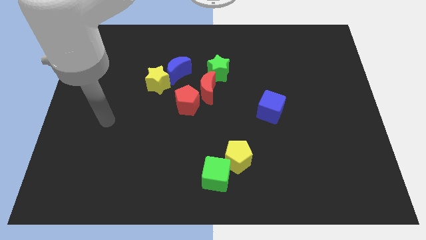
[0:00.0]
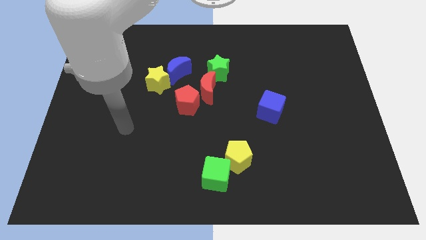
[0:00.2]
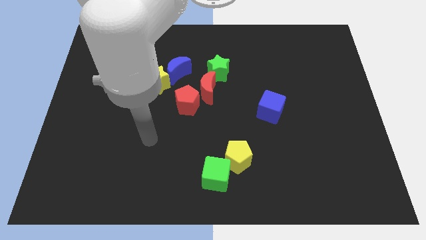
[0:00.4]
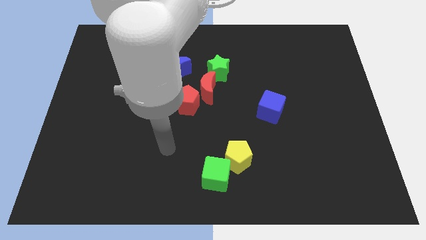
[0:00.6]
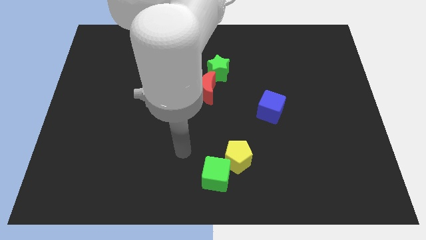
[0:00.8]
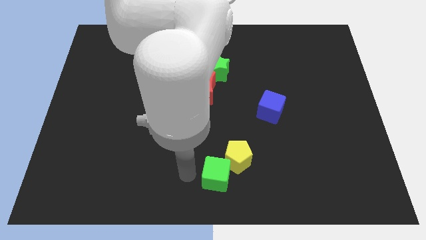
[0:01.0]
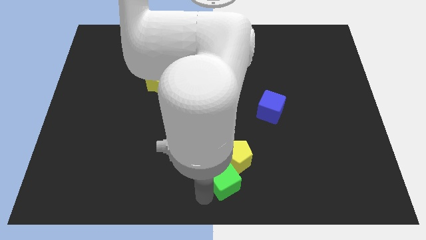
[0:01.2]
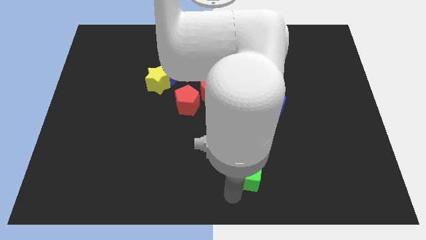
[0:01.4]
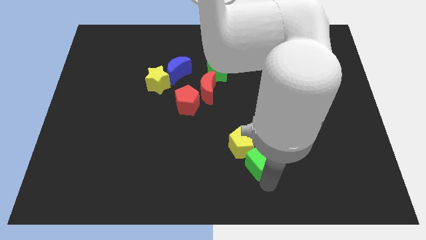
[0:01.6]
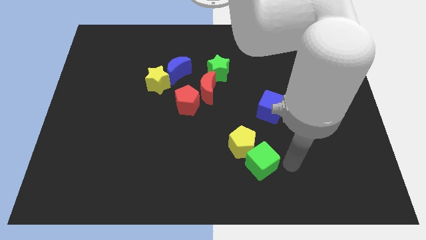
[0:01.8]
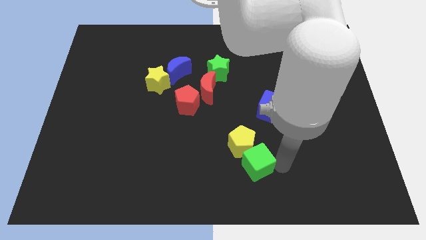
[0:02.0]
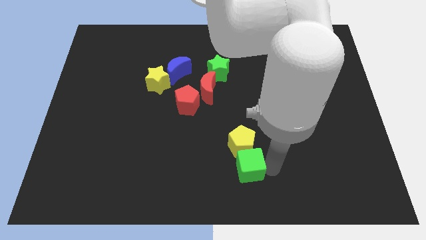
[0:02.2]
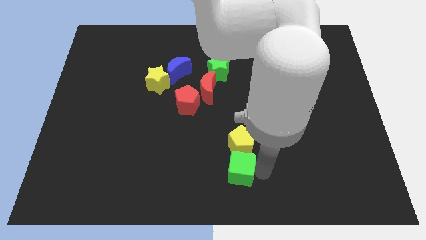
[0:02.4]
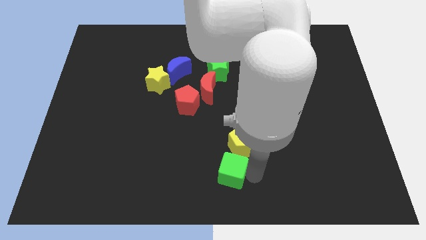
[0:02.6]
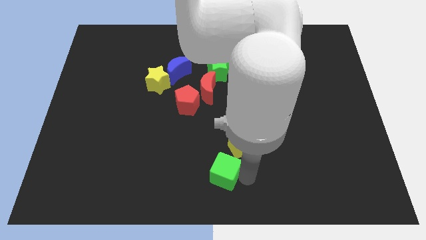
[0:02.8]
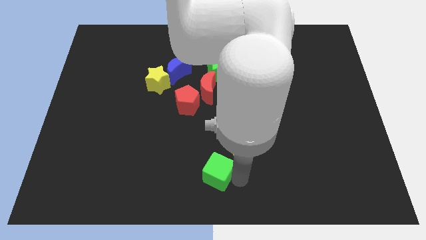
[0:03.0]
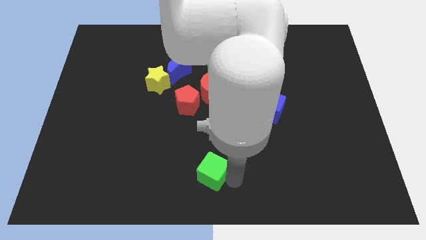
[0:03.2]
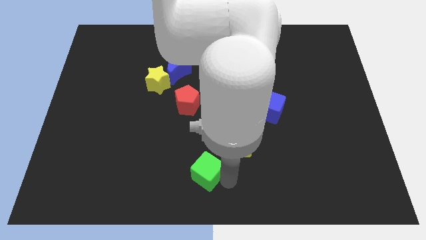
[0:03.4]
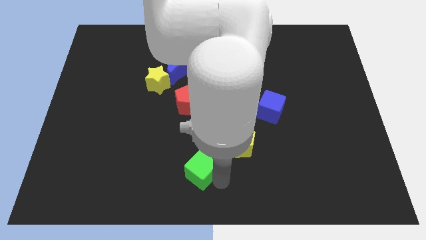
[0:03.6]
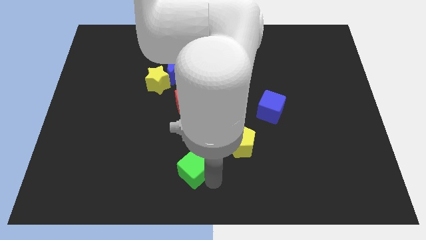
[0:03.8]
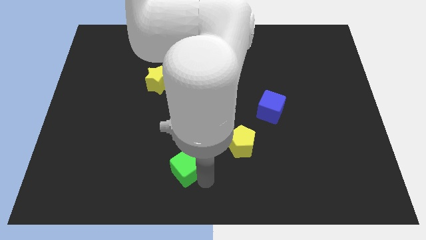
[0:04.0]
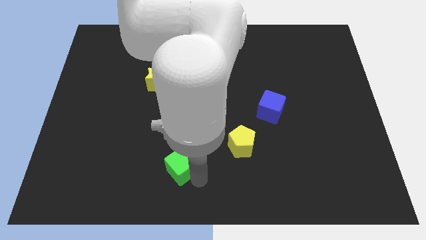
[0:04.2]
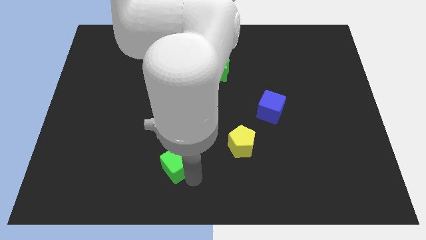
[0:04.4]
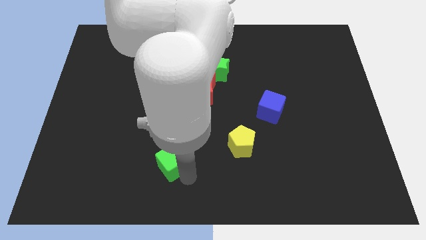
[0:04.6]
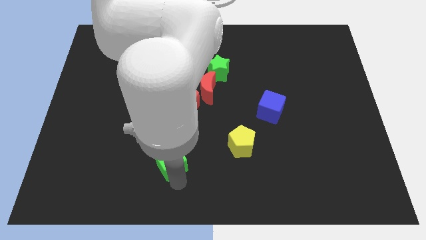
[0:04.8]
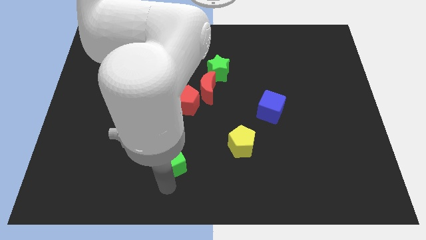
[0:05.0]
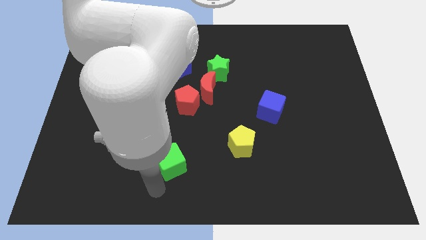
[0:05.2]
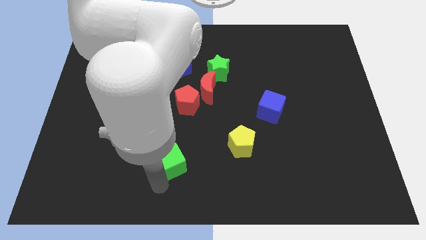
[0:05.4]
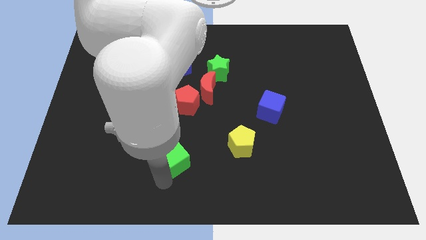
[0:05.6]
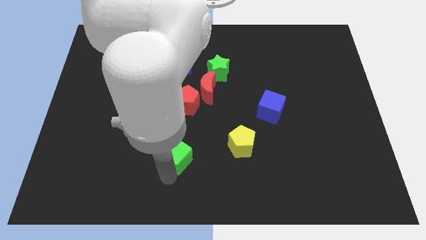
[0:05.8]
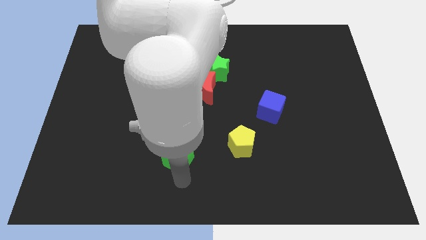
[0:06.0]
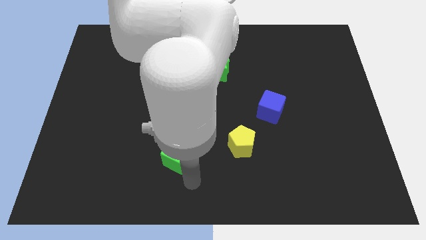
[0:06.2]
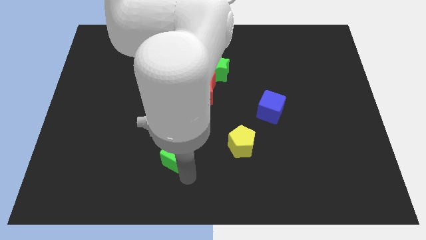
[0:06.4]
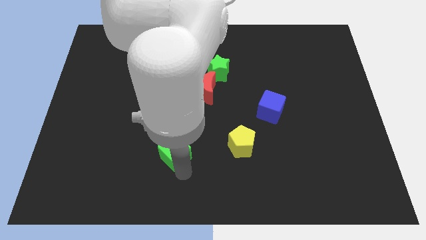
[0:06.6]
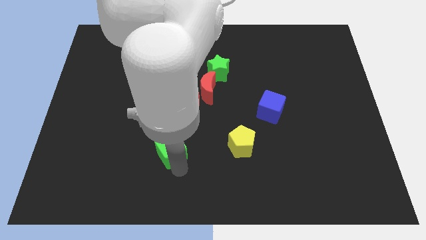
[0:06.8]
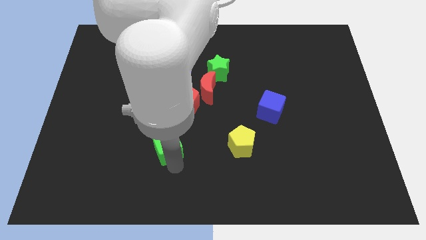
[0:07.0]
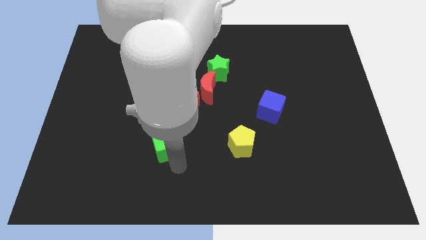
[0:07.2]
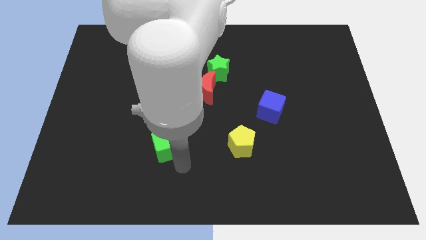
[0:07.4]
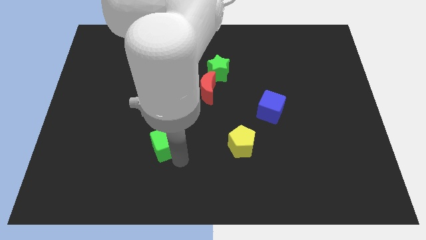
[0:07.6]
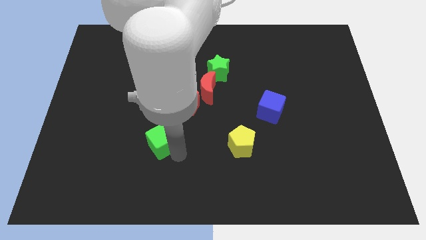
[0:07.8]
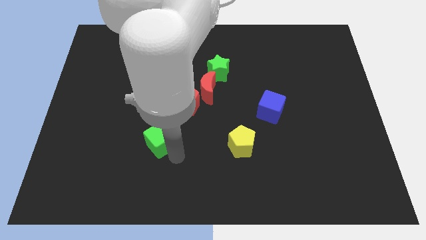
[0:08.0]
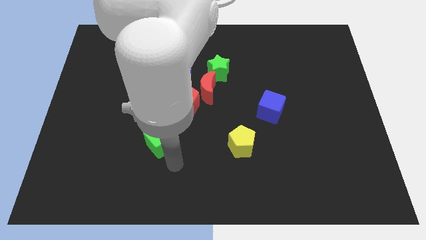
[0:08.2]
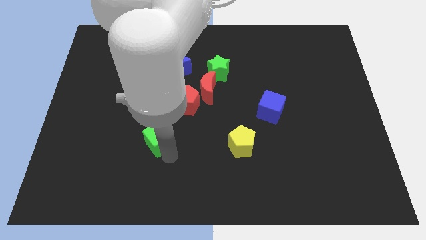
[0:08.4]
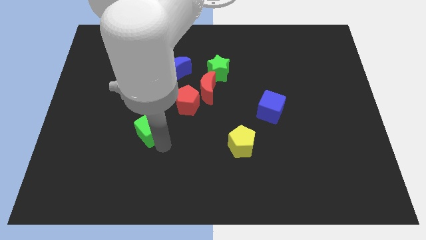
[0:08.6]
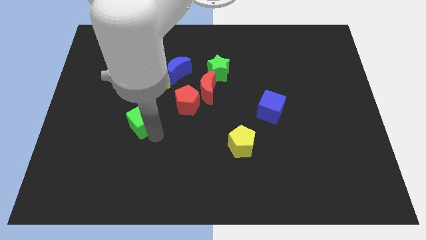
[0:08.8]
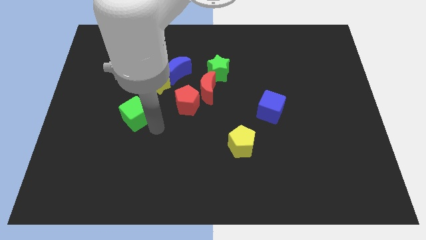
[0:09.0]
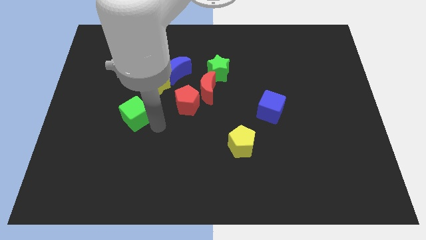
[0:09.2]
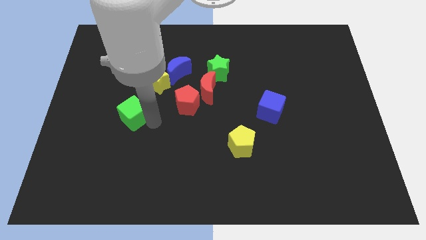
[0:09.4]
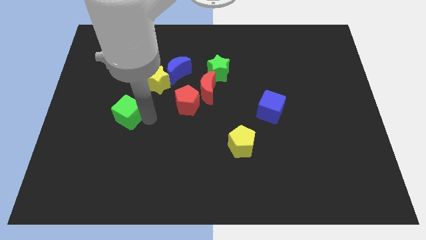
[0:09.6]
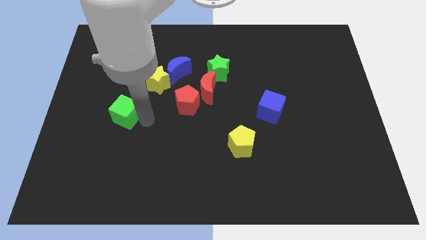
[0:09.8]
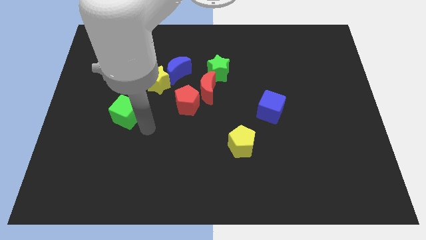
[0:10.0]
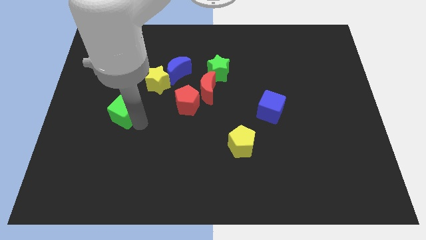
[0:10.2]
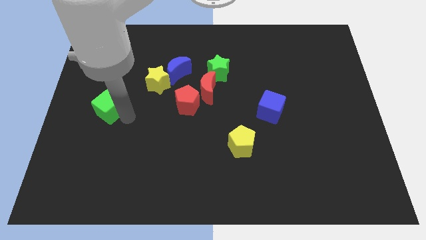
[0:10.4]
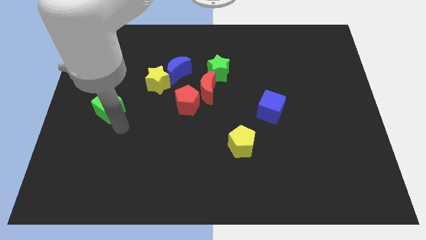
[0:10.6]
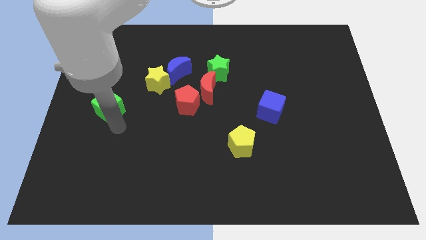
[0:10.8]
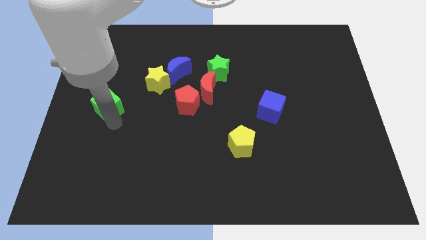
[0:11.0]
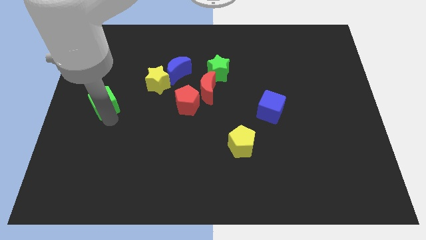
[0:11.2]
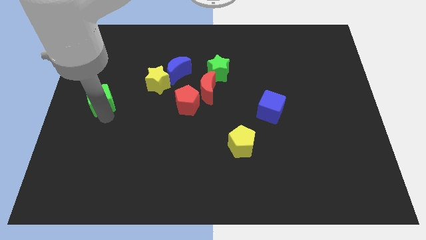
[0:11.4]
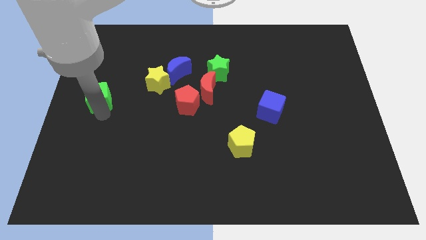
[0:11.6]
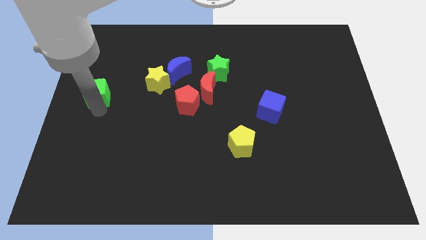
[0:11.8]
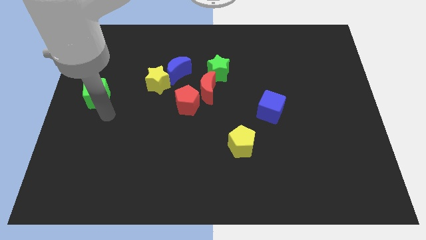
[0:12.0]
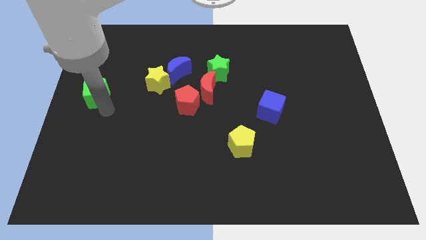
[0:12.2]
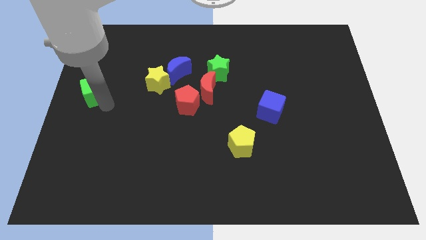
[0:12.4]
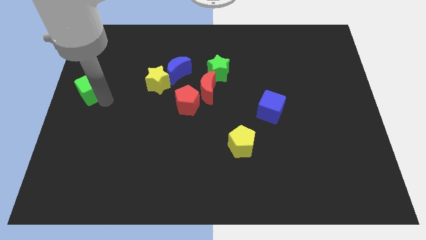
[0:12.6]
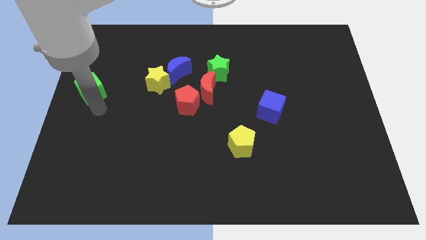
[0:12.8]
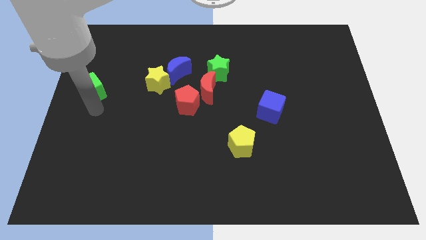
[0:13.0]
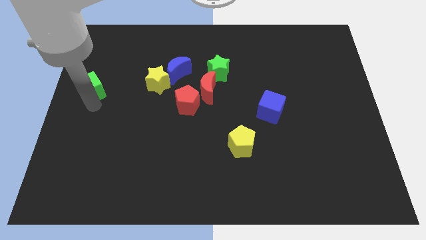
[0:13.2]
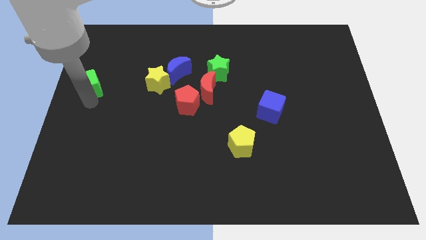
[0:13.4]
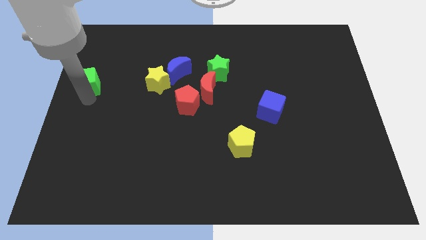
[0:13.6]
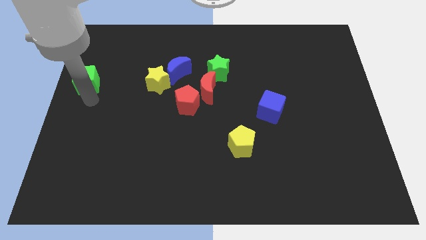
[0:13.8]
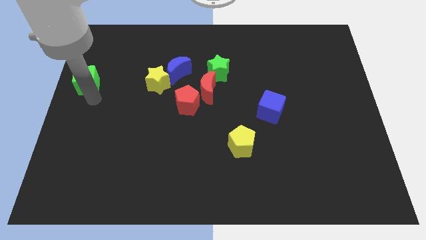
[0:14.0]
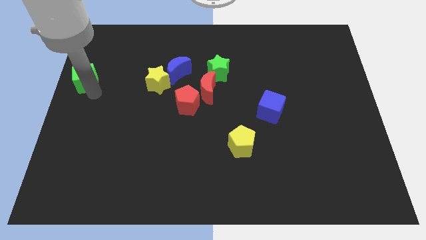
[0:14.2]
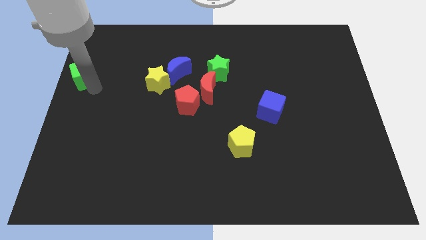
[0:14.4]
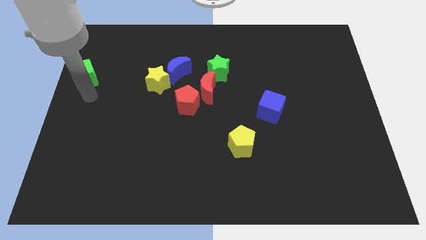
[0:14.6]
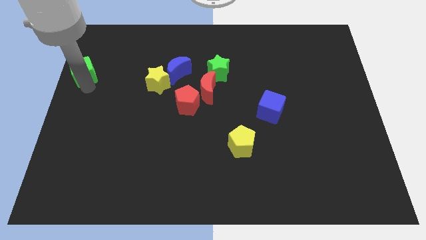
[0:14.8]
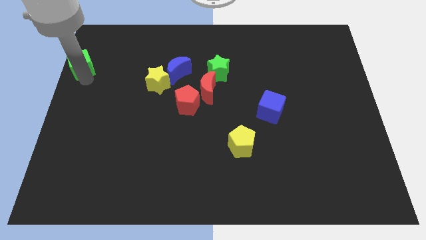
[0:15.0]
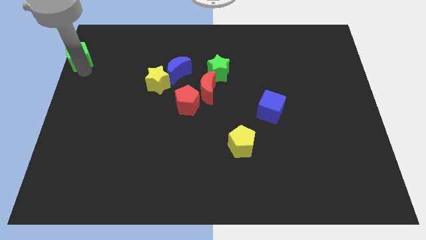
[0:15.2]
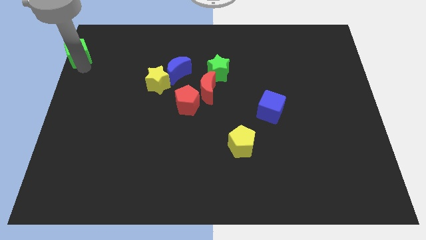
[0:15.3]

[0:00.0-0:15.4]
put the green cube to the top left
